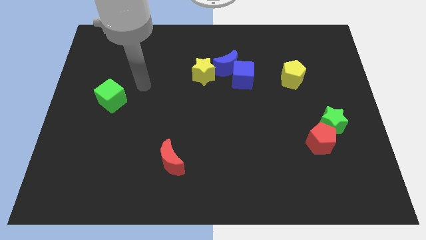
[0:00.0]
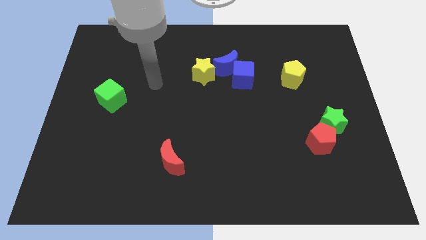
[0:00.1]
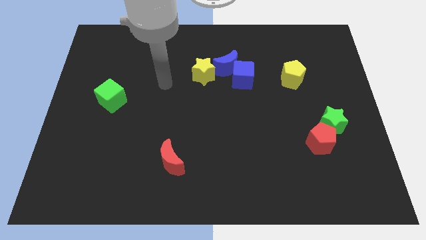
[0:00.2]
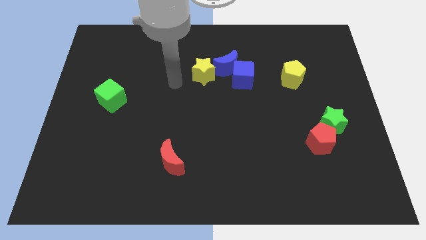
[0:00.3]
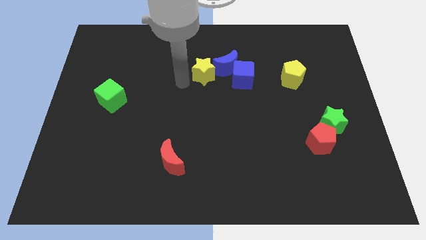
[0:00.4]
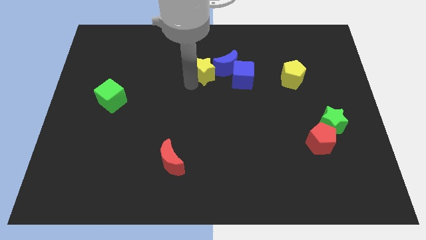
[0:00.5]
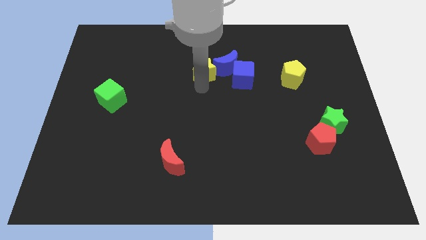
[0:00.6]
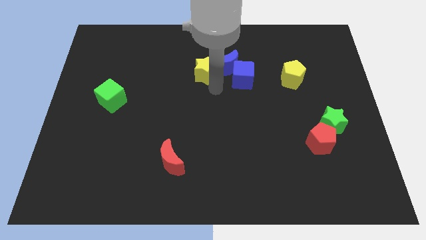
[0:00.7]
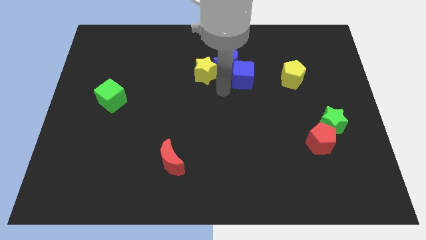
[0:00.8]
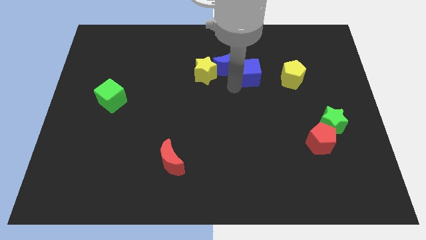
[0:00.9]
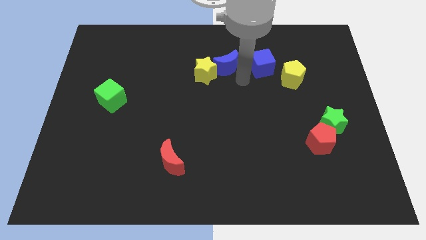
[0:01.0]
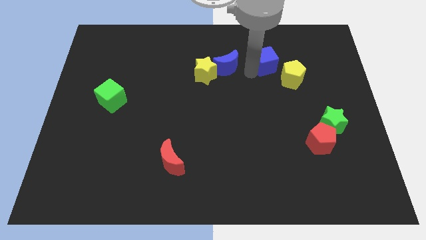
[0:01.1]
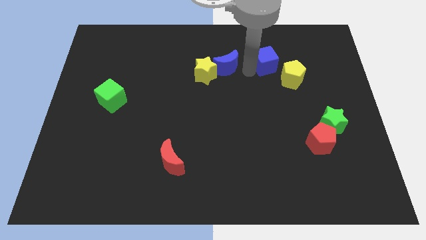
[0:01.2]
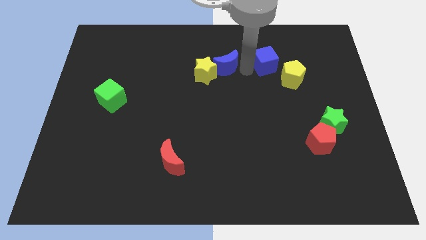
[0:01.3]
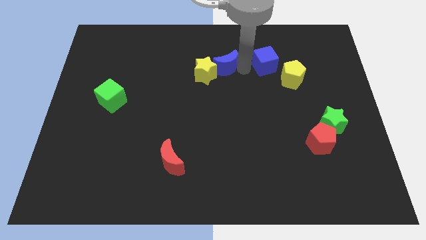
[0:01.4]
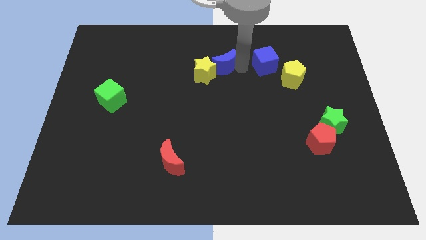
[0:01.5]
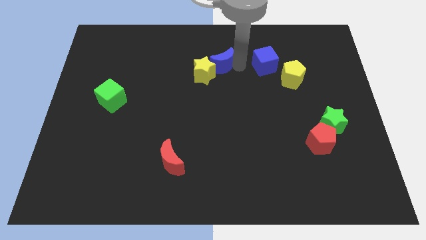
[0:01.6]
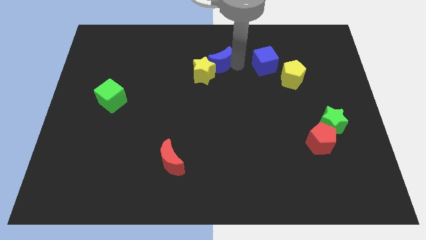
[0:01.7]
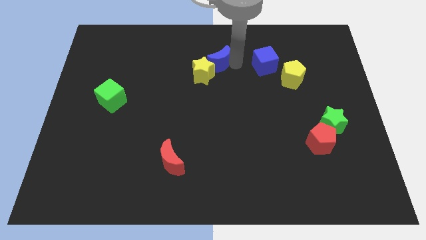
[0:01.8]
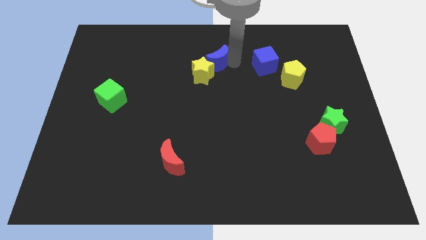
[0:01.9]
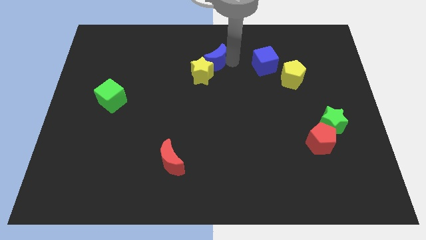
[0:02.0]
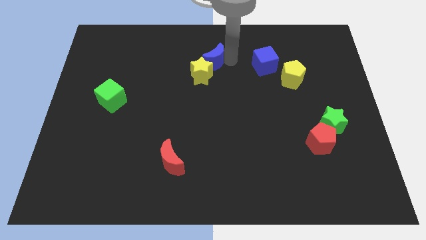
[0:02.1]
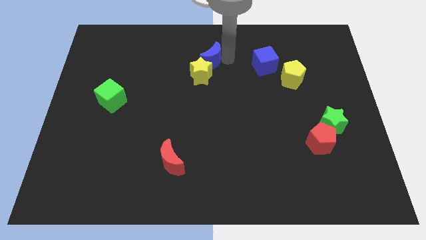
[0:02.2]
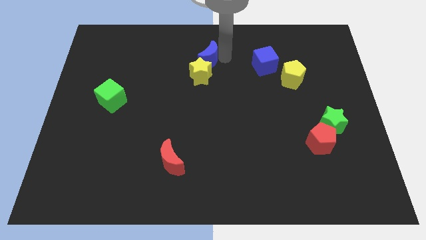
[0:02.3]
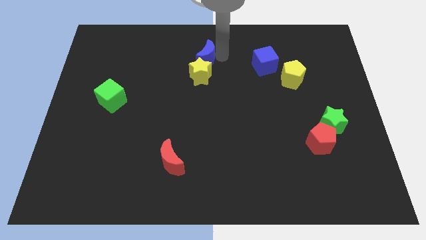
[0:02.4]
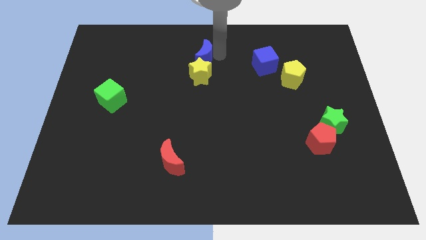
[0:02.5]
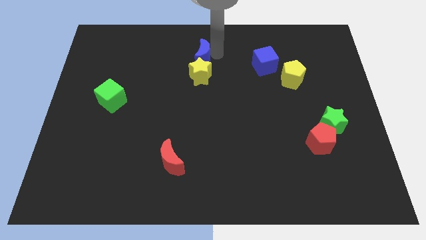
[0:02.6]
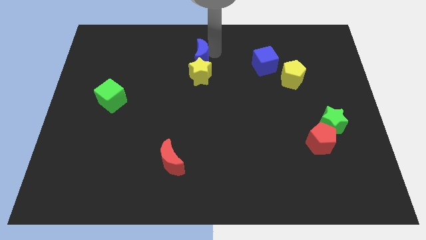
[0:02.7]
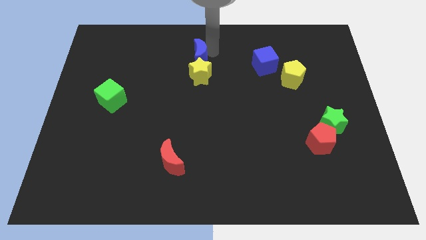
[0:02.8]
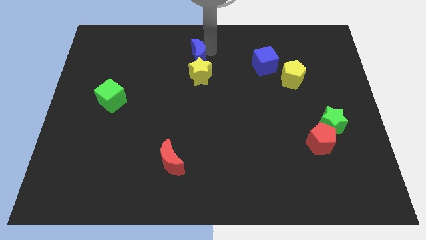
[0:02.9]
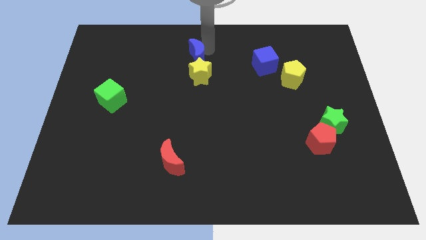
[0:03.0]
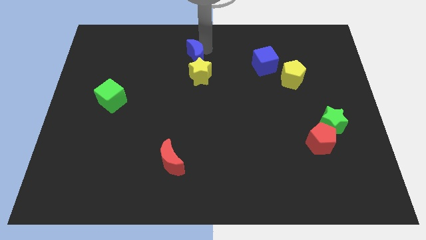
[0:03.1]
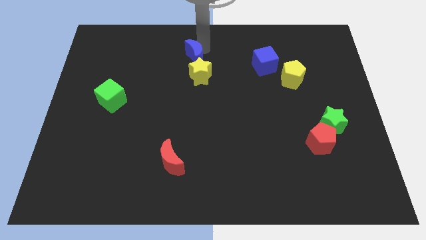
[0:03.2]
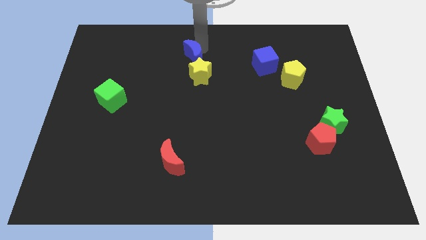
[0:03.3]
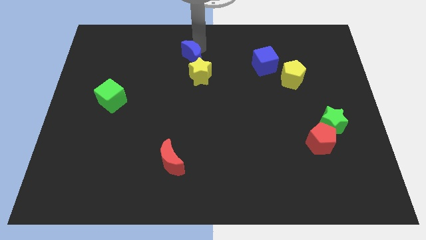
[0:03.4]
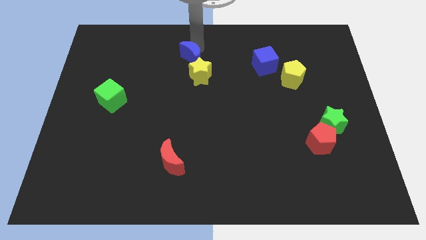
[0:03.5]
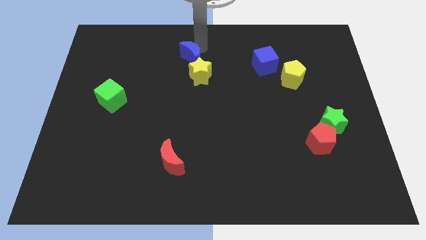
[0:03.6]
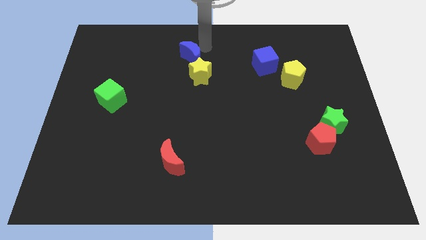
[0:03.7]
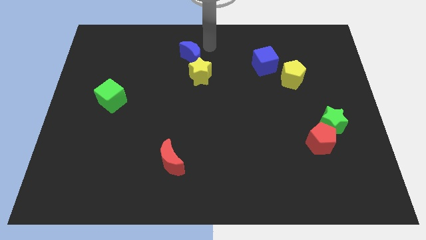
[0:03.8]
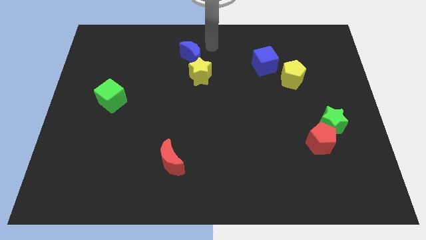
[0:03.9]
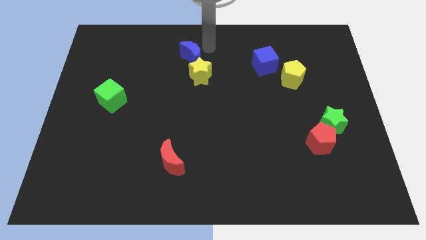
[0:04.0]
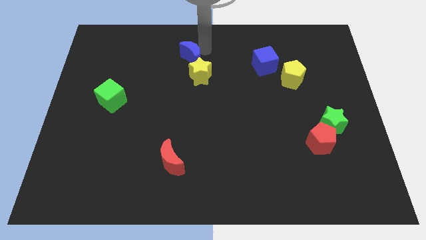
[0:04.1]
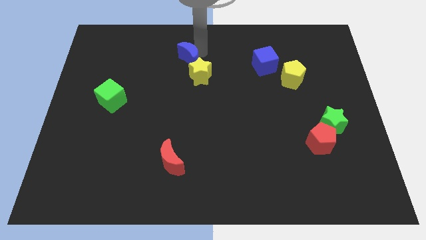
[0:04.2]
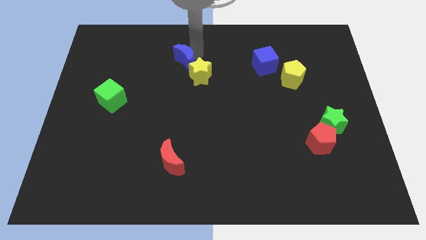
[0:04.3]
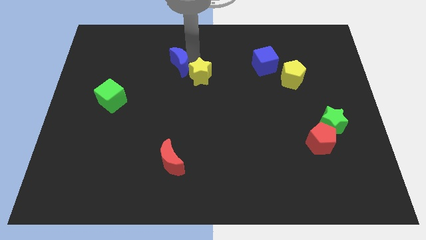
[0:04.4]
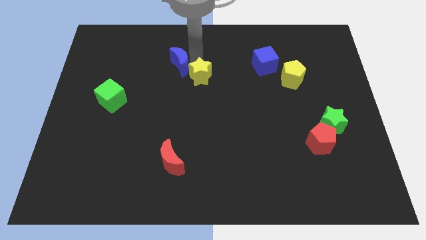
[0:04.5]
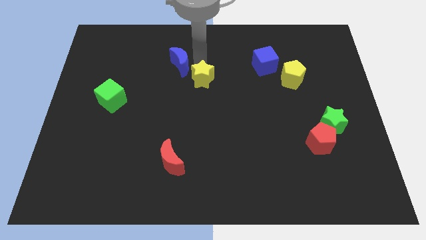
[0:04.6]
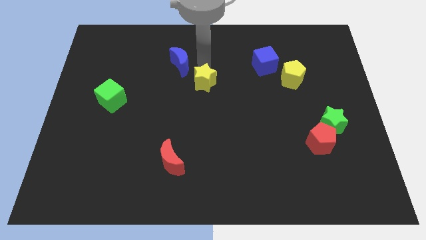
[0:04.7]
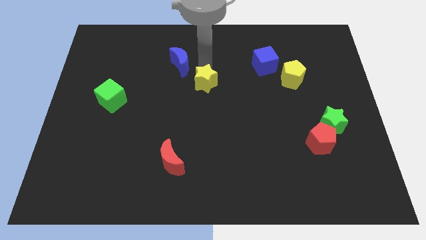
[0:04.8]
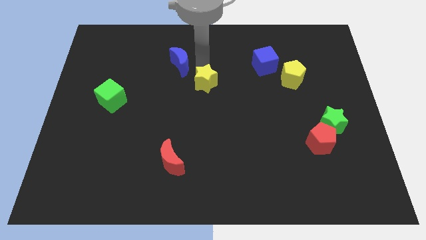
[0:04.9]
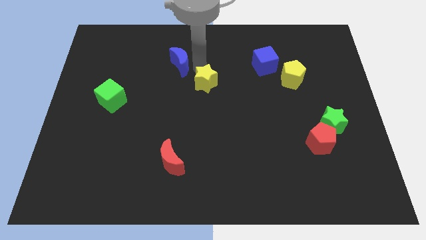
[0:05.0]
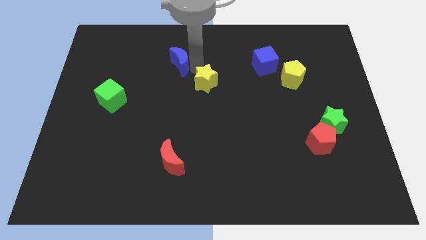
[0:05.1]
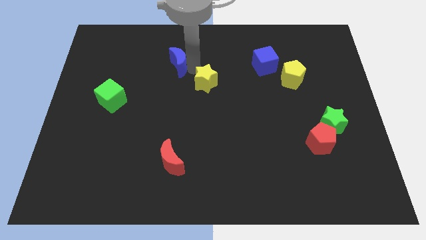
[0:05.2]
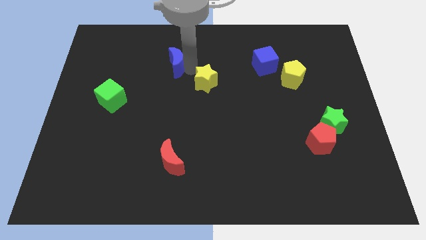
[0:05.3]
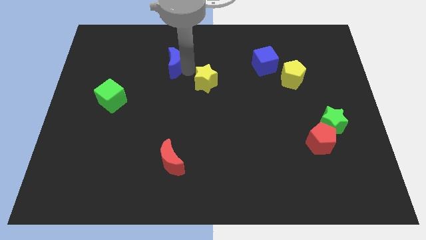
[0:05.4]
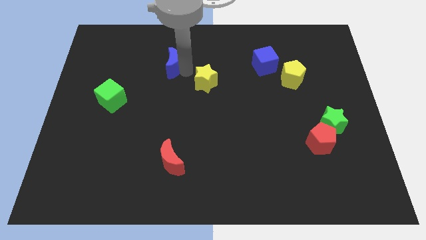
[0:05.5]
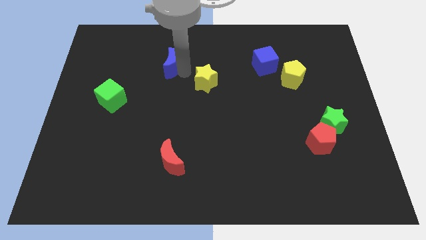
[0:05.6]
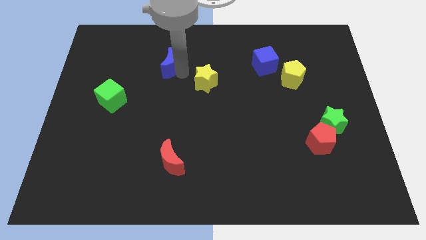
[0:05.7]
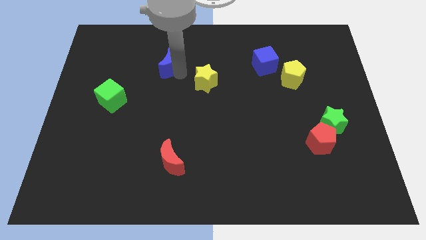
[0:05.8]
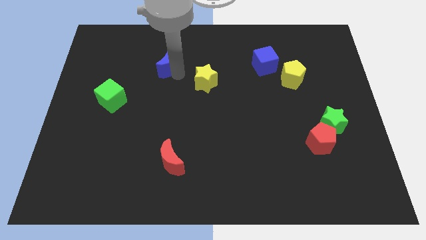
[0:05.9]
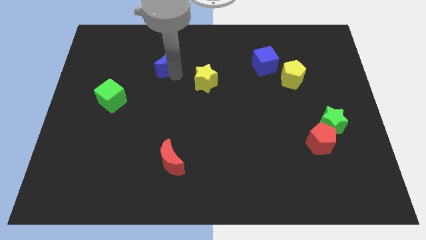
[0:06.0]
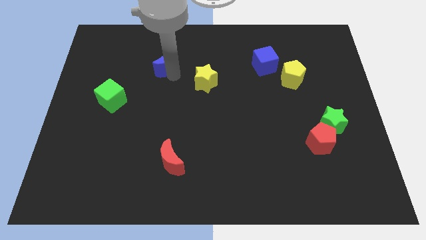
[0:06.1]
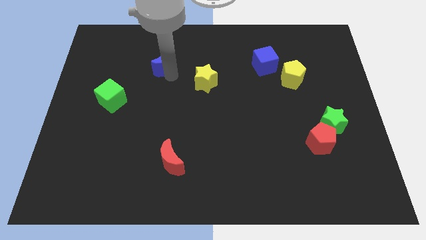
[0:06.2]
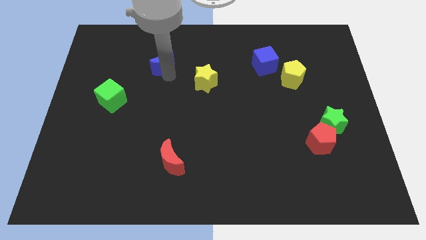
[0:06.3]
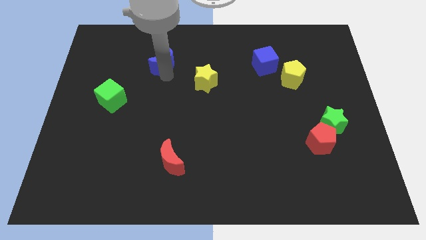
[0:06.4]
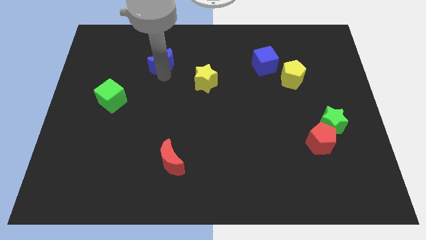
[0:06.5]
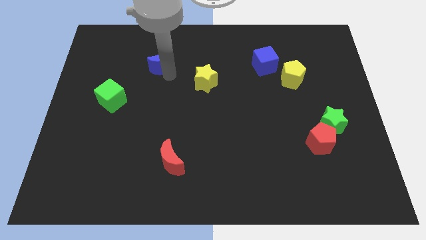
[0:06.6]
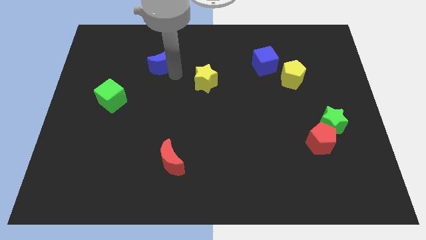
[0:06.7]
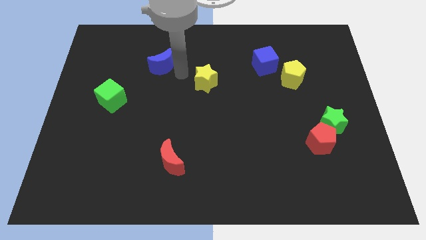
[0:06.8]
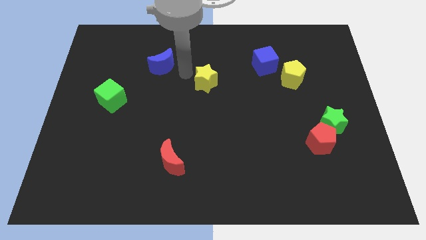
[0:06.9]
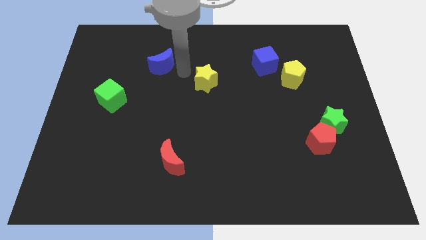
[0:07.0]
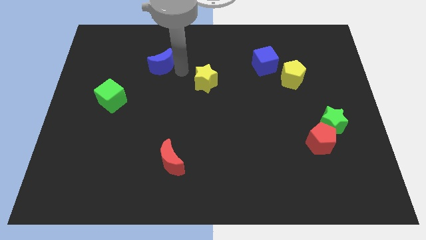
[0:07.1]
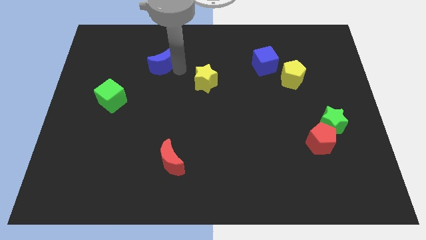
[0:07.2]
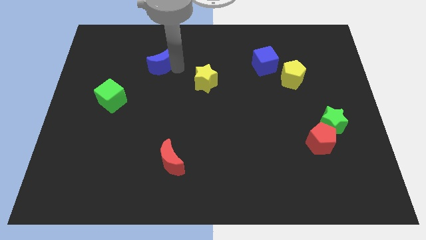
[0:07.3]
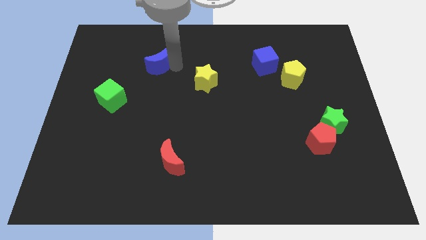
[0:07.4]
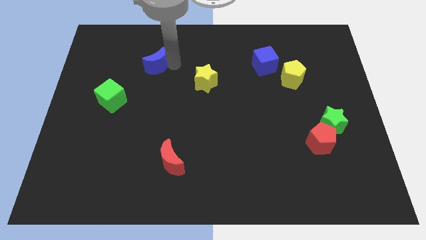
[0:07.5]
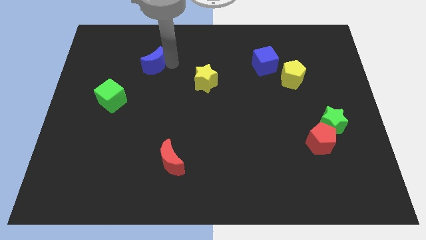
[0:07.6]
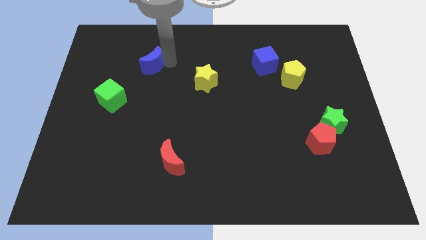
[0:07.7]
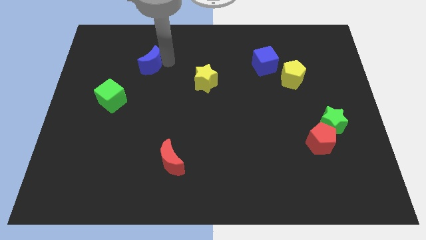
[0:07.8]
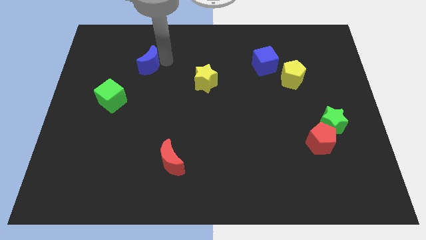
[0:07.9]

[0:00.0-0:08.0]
push the blue moon to the left
